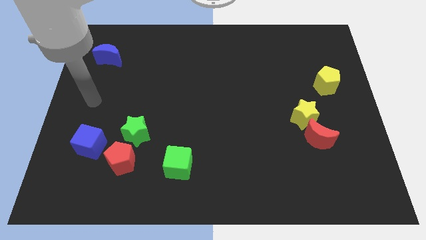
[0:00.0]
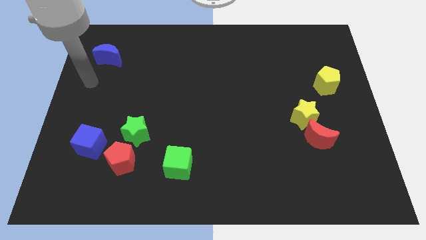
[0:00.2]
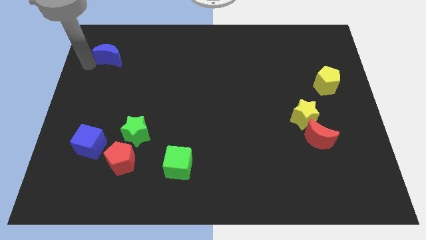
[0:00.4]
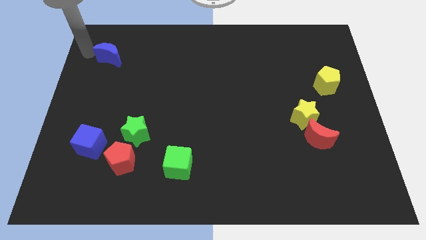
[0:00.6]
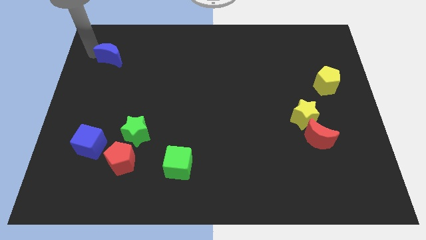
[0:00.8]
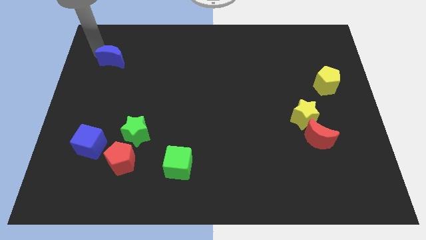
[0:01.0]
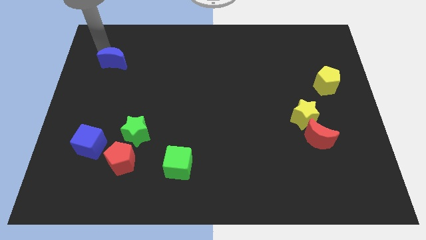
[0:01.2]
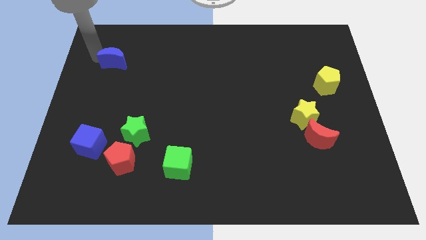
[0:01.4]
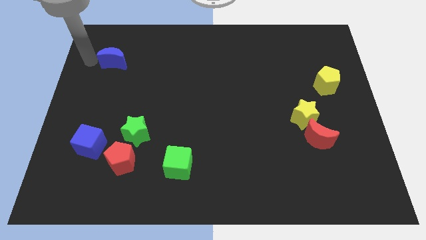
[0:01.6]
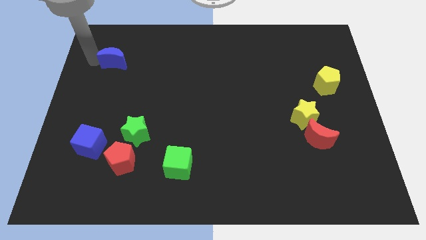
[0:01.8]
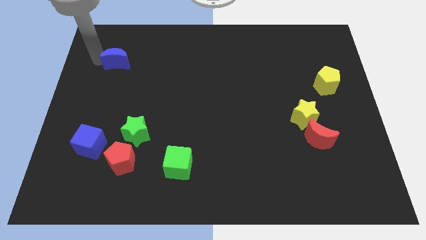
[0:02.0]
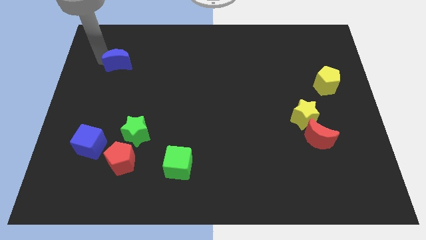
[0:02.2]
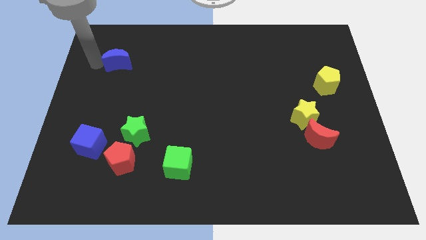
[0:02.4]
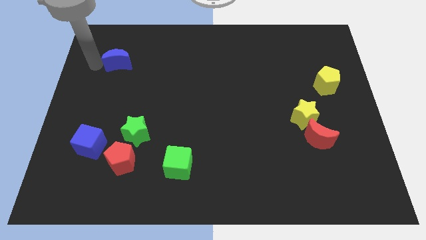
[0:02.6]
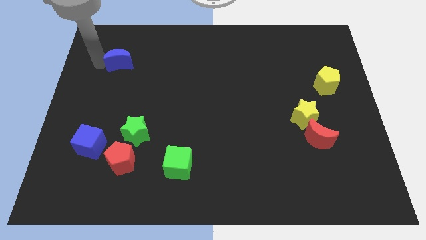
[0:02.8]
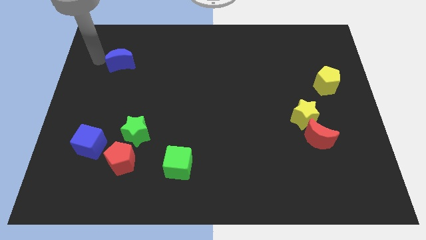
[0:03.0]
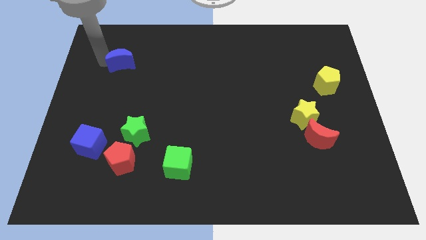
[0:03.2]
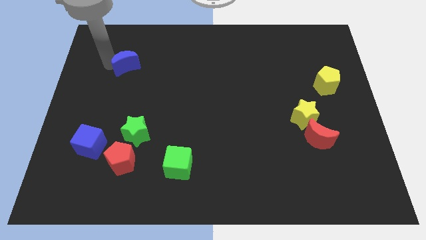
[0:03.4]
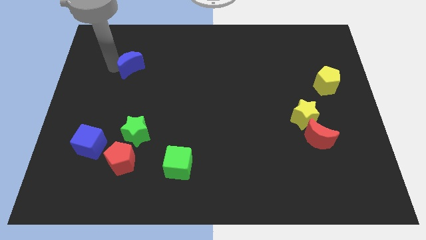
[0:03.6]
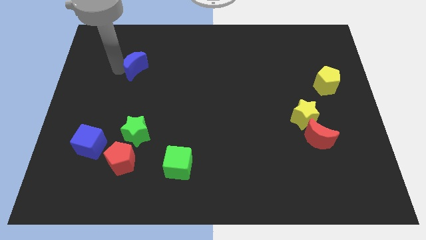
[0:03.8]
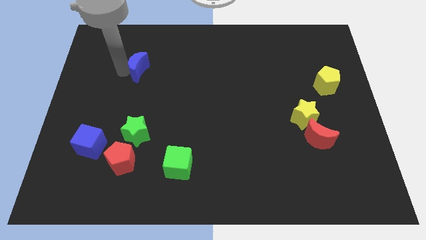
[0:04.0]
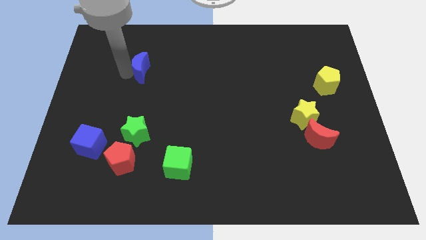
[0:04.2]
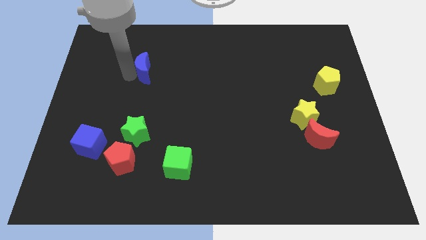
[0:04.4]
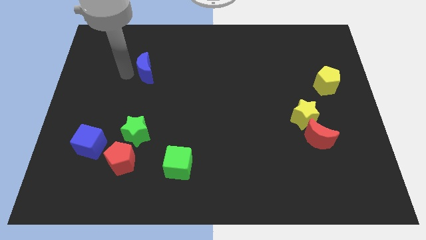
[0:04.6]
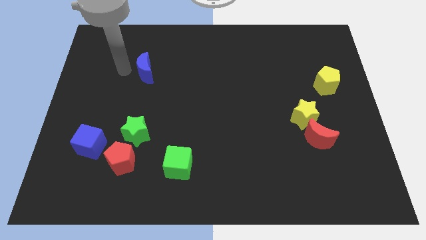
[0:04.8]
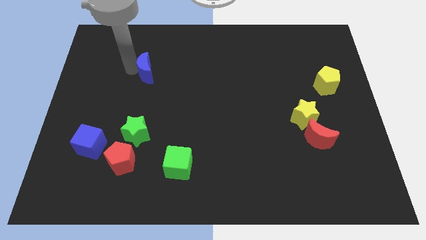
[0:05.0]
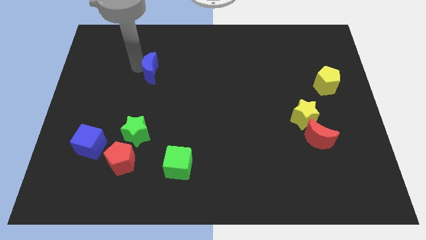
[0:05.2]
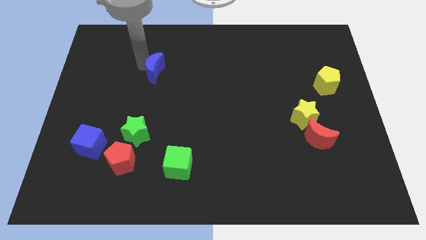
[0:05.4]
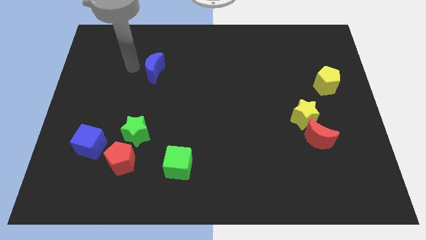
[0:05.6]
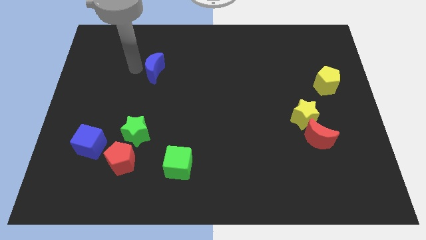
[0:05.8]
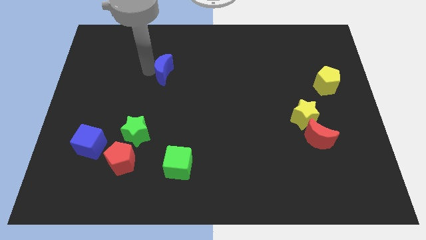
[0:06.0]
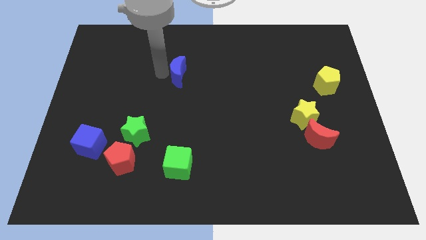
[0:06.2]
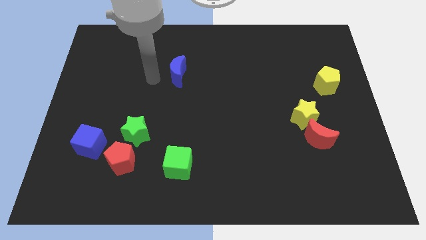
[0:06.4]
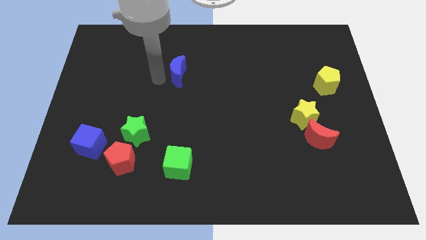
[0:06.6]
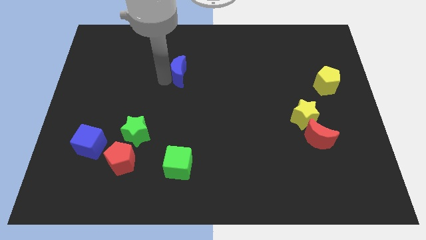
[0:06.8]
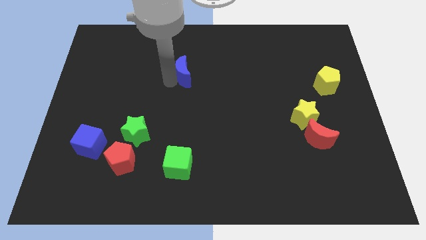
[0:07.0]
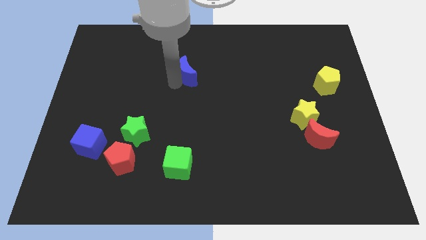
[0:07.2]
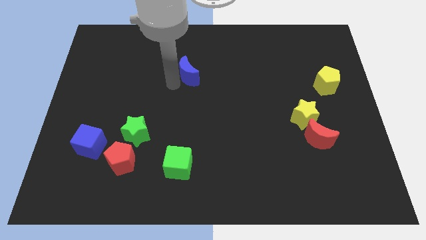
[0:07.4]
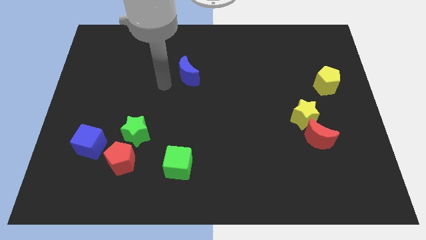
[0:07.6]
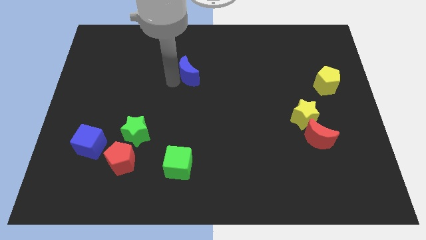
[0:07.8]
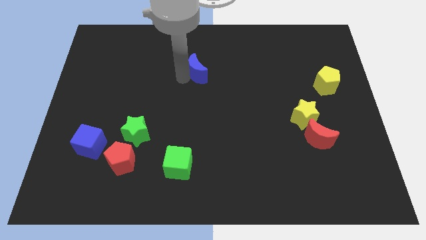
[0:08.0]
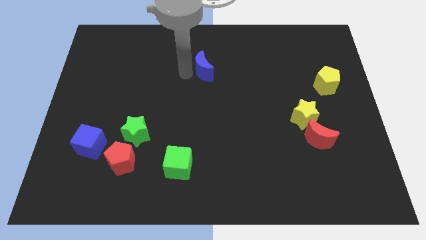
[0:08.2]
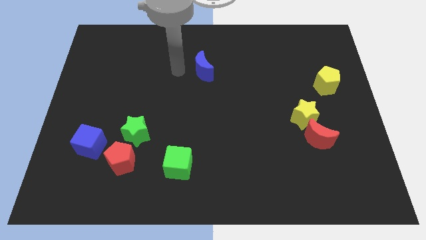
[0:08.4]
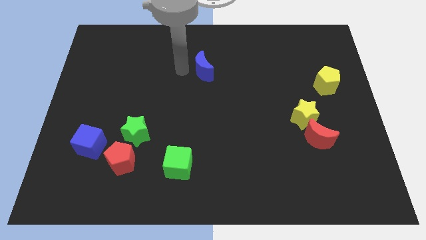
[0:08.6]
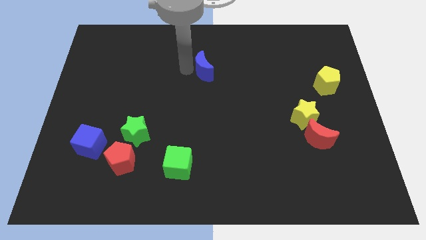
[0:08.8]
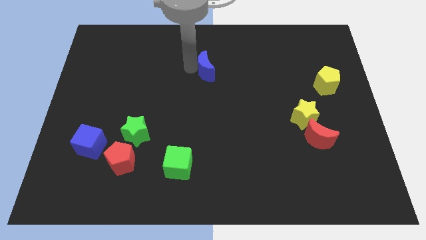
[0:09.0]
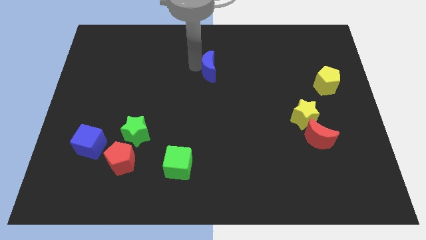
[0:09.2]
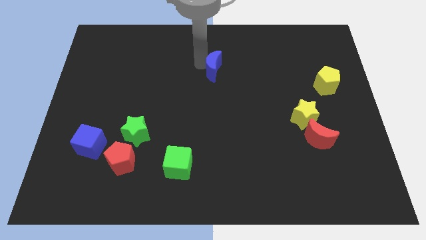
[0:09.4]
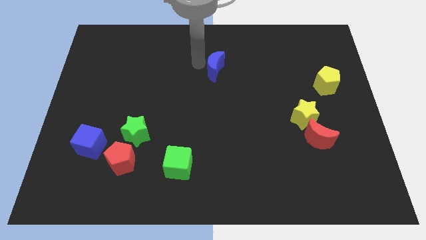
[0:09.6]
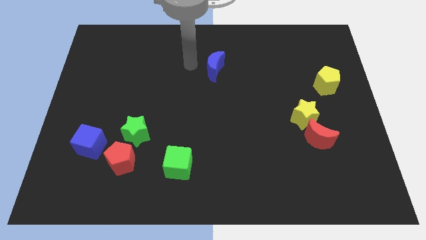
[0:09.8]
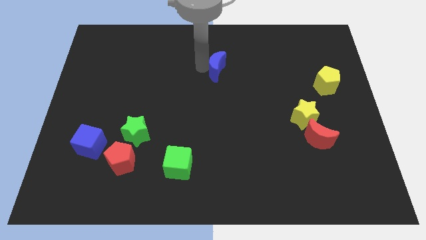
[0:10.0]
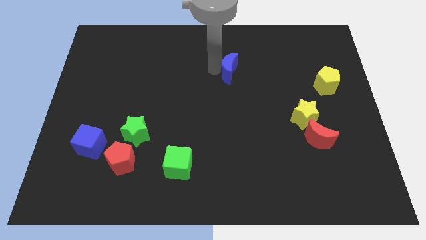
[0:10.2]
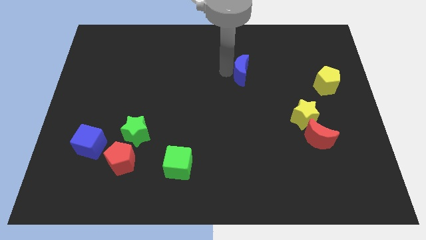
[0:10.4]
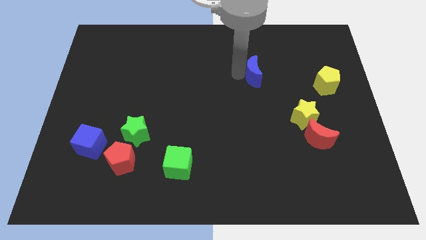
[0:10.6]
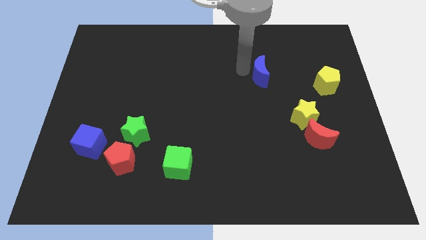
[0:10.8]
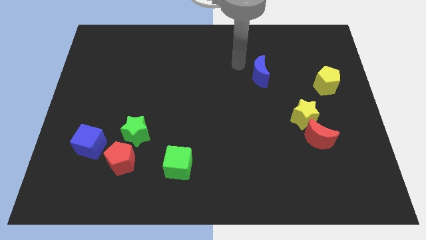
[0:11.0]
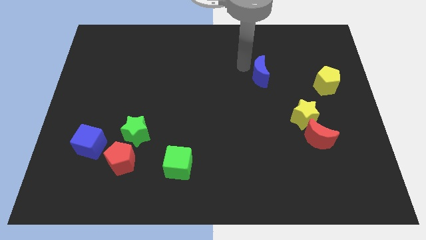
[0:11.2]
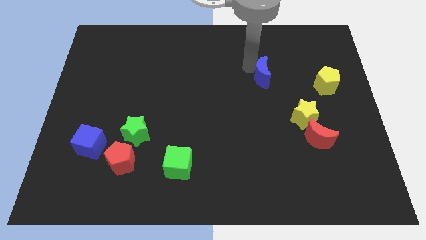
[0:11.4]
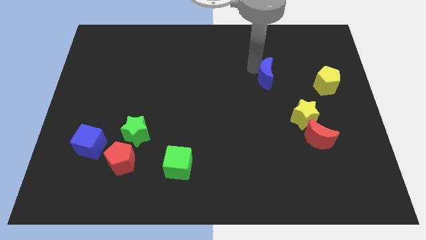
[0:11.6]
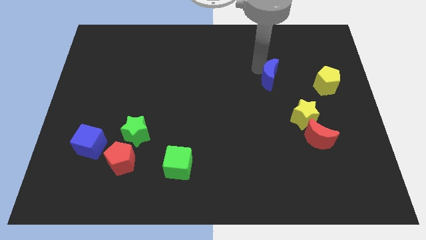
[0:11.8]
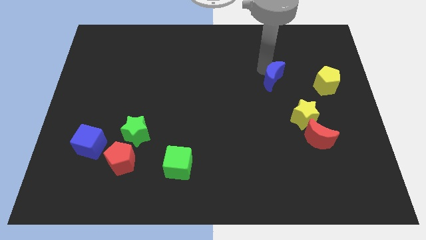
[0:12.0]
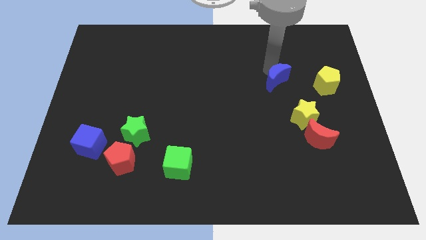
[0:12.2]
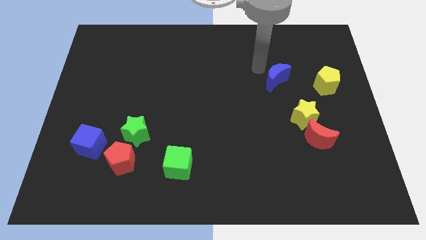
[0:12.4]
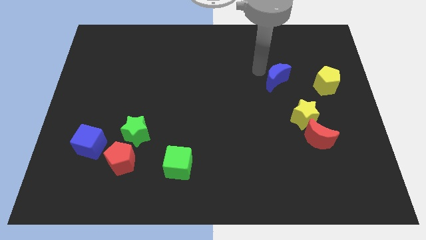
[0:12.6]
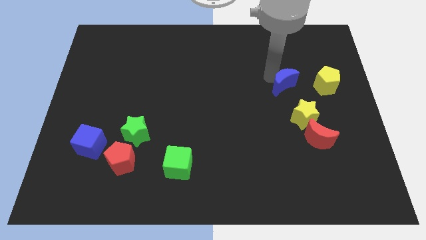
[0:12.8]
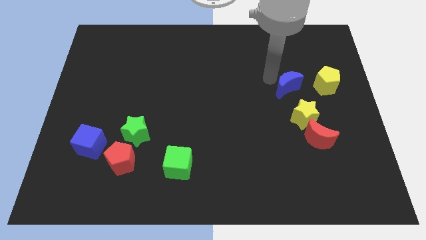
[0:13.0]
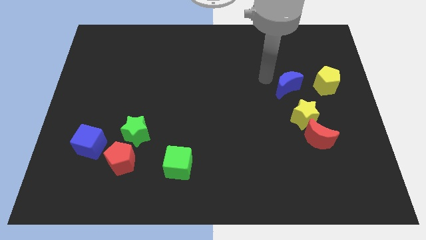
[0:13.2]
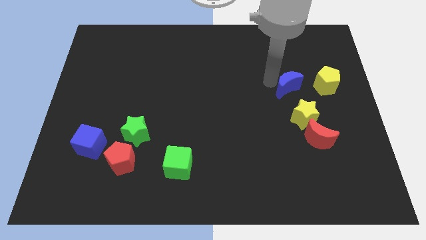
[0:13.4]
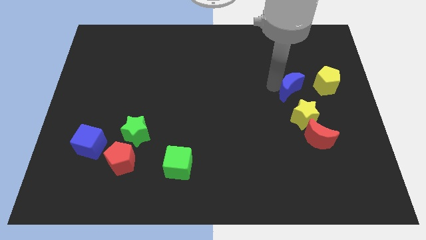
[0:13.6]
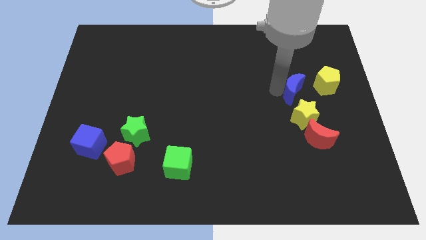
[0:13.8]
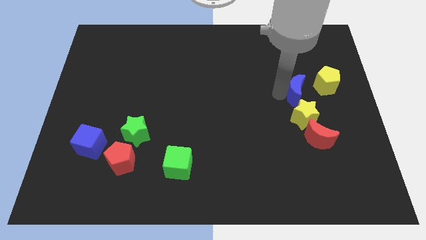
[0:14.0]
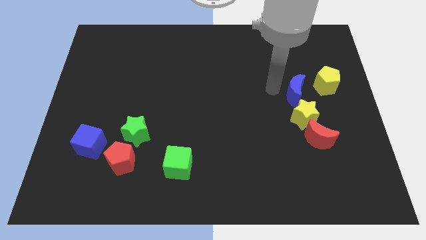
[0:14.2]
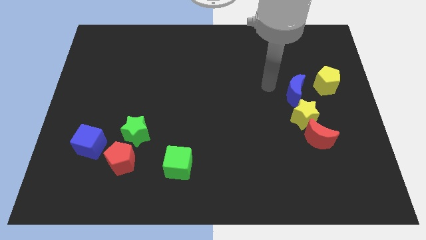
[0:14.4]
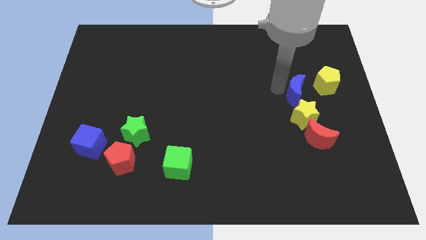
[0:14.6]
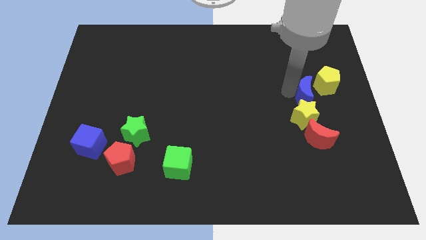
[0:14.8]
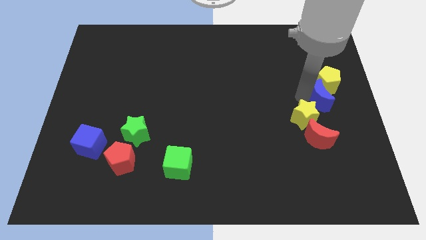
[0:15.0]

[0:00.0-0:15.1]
move the blue moon to the right side of the board
